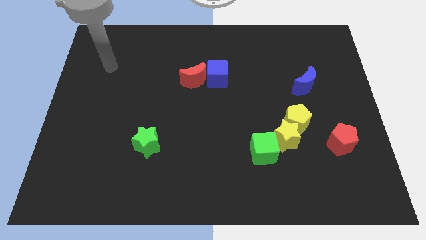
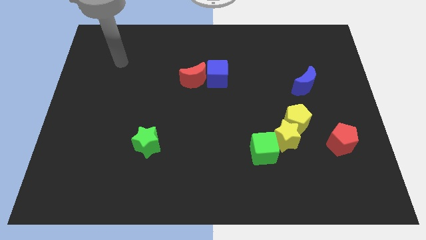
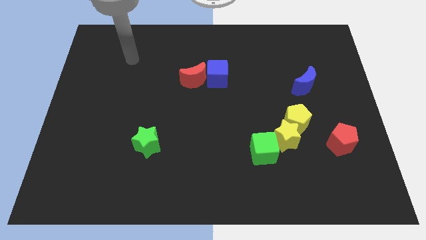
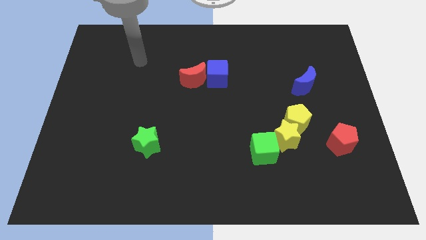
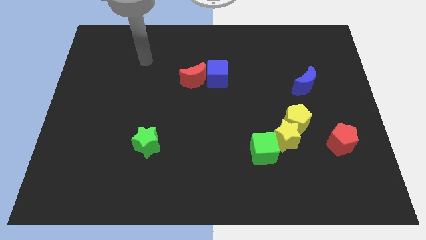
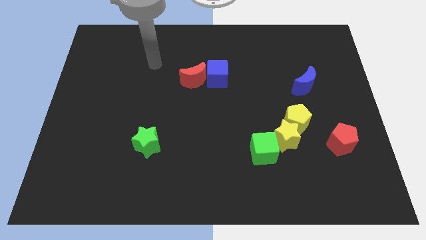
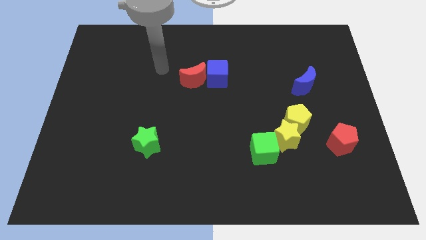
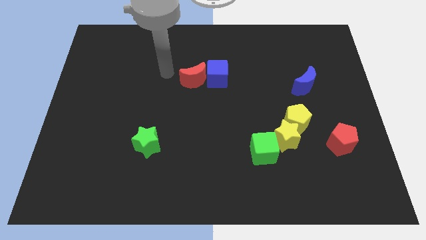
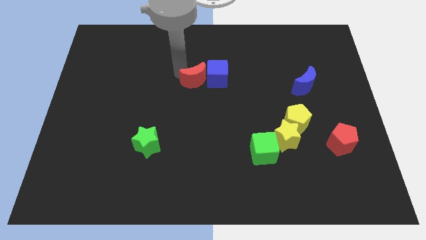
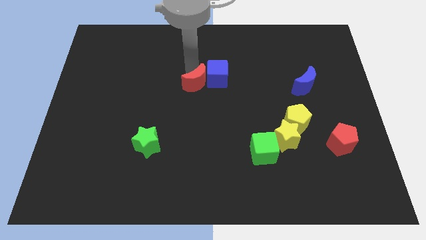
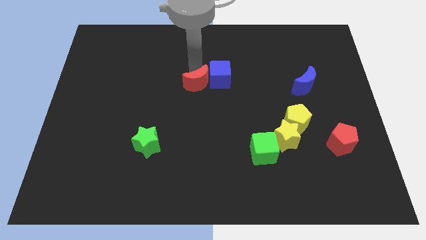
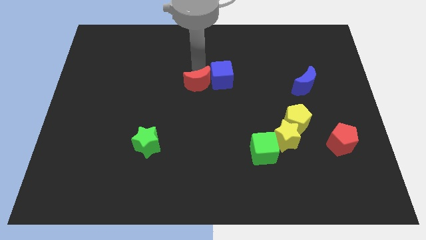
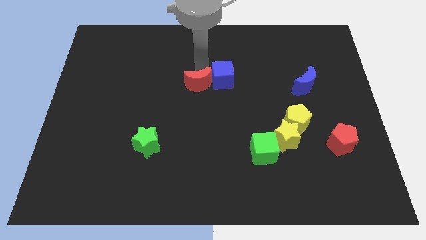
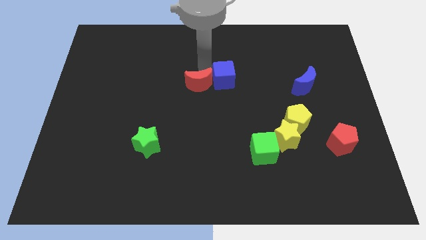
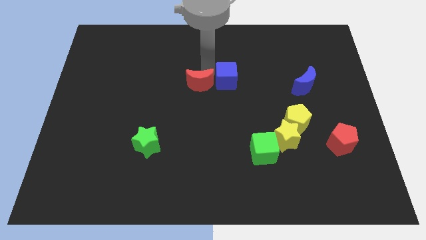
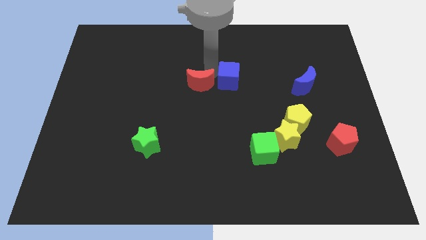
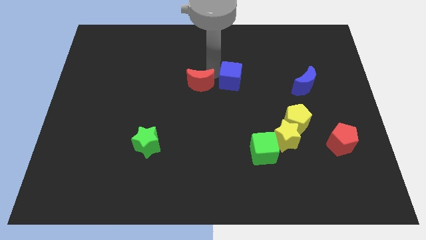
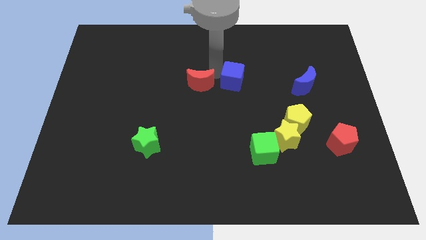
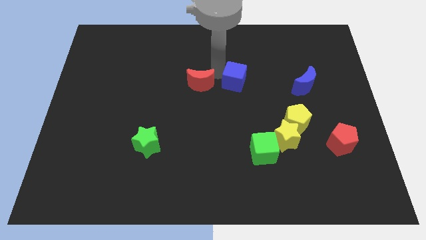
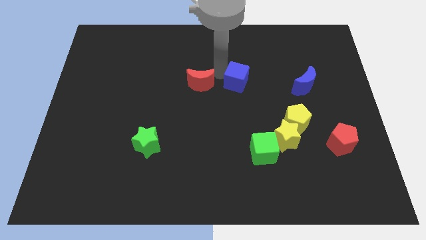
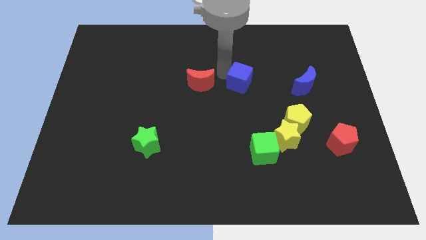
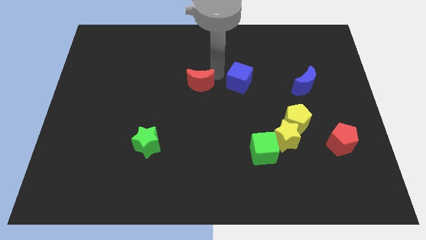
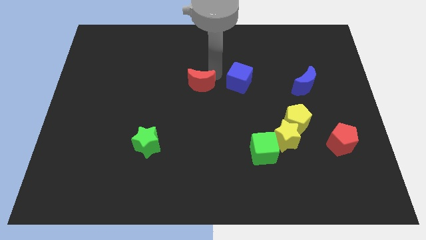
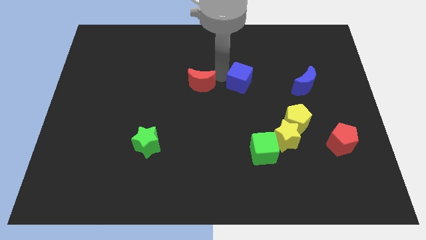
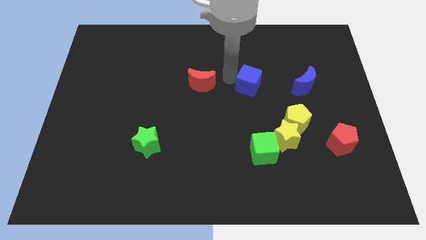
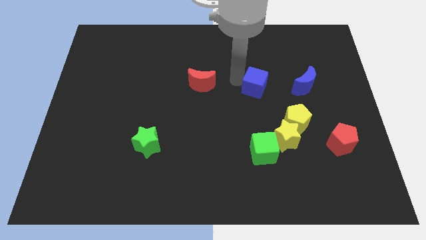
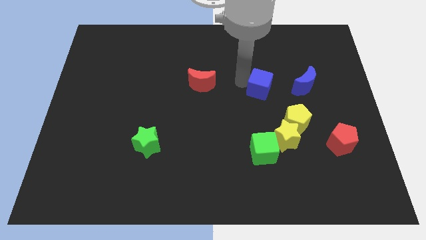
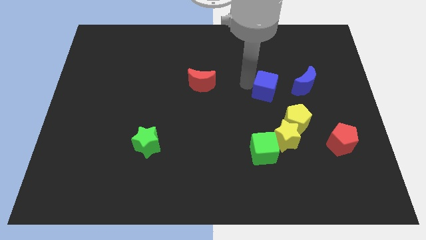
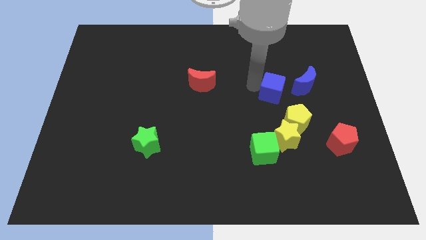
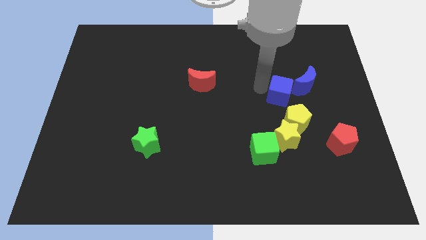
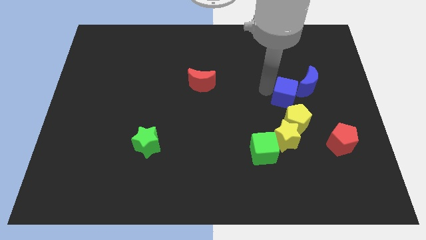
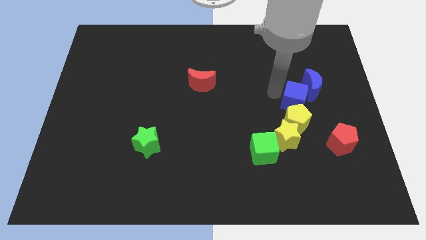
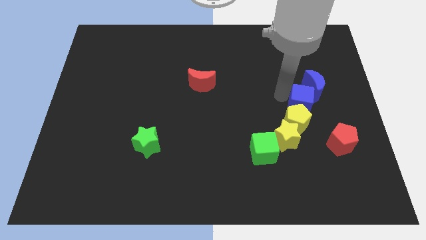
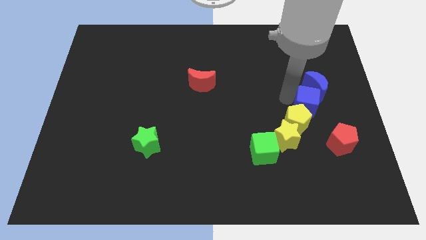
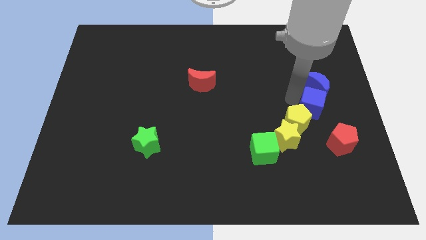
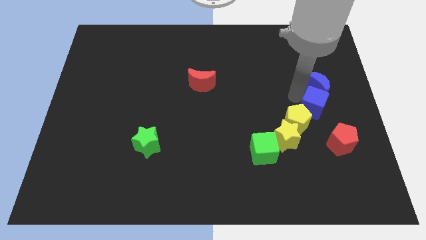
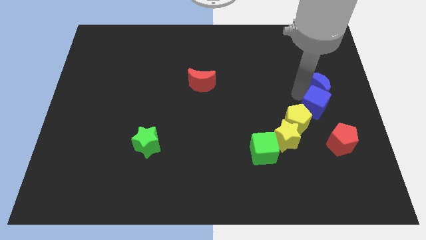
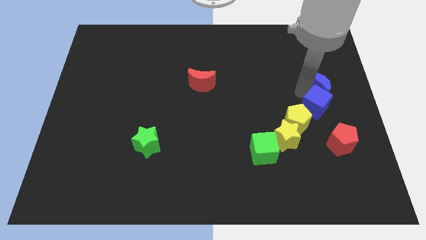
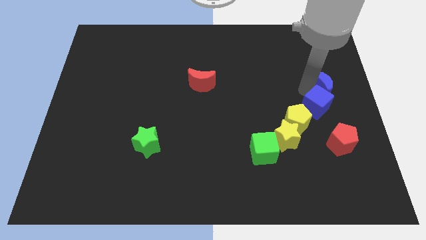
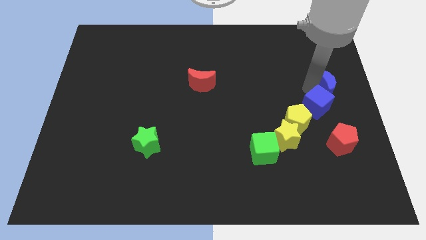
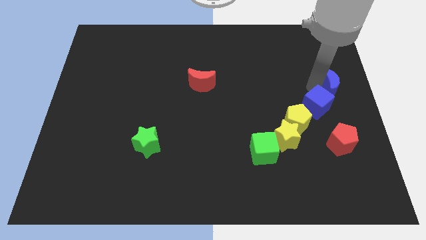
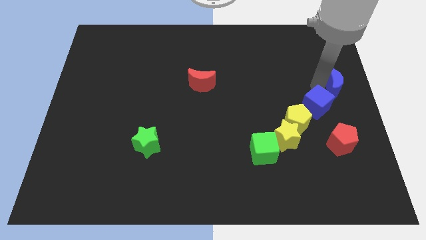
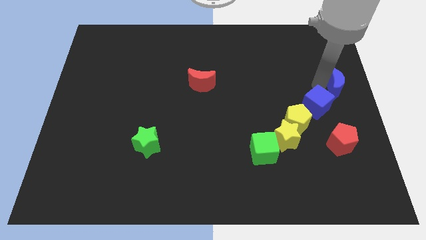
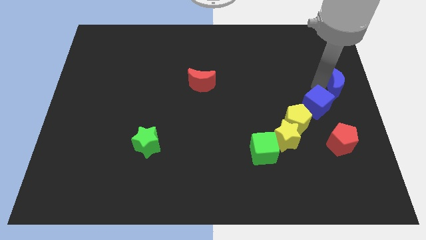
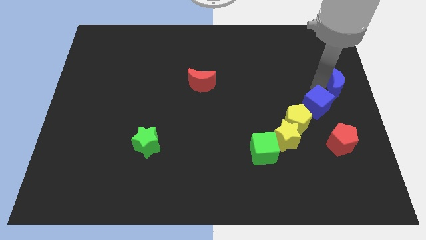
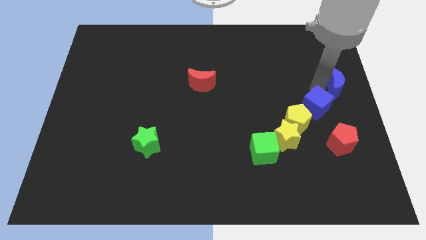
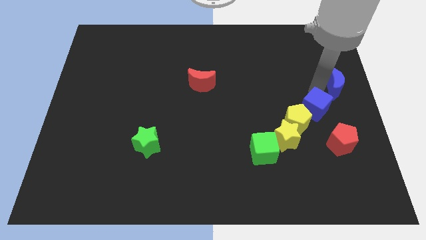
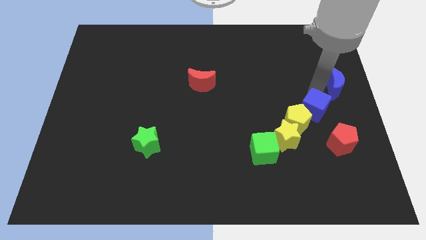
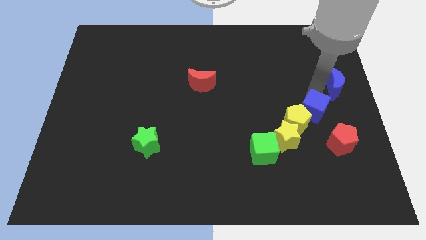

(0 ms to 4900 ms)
move the blue cube diagonally down and right

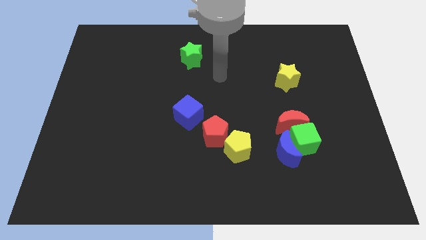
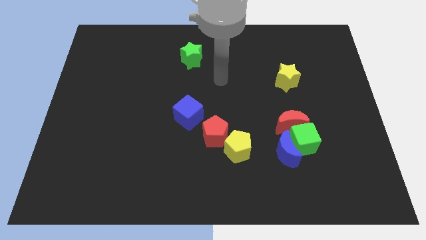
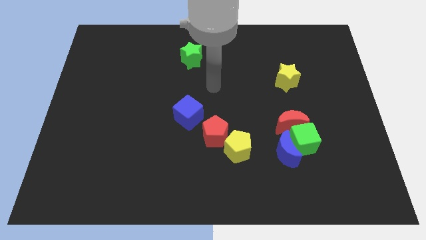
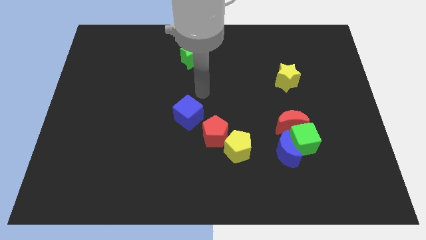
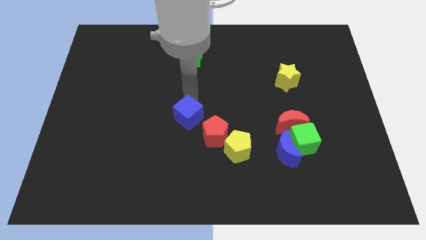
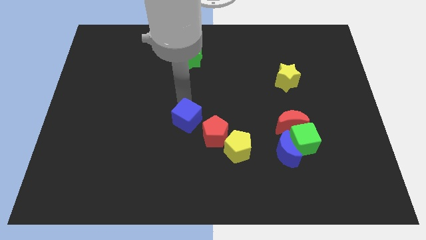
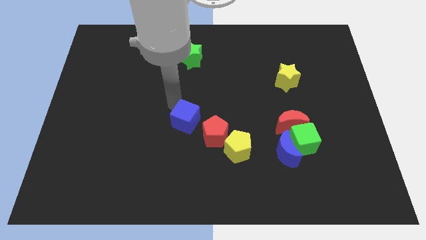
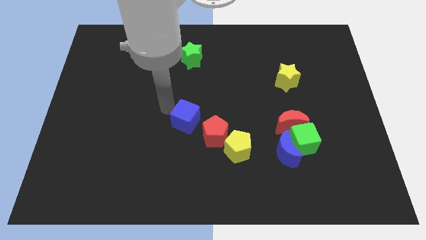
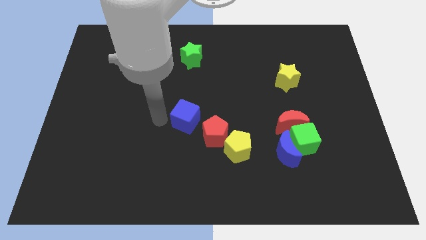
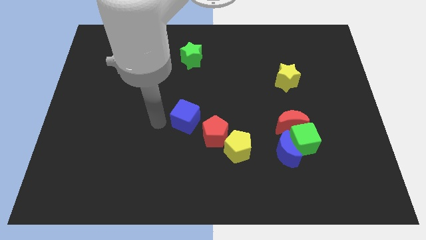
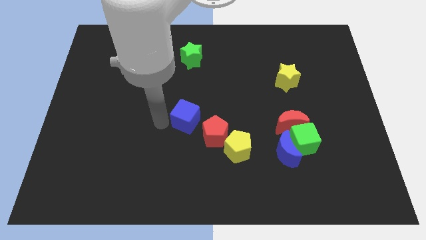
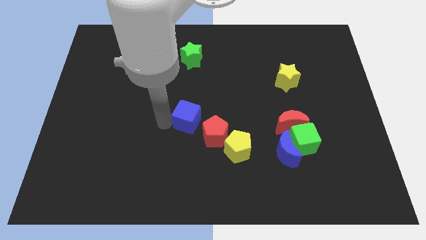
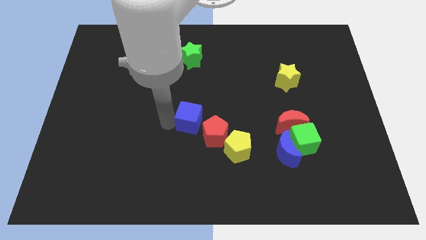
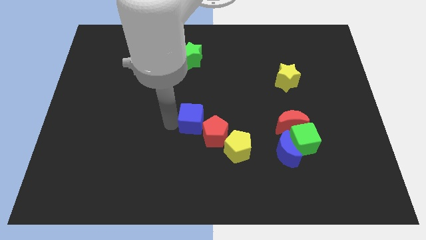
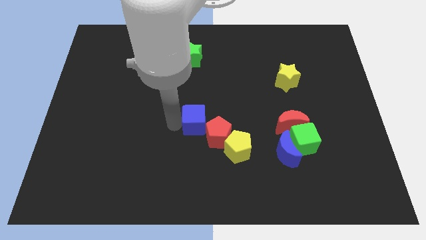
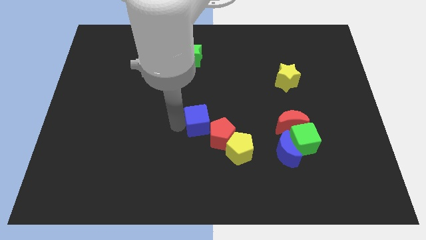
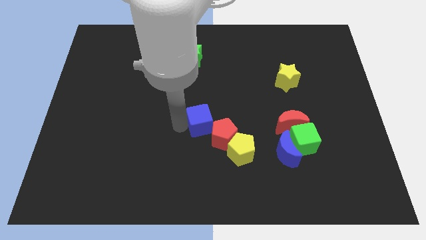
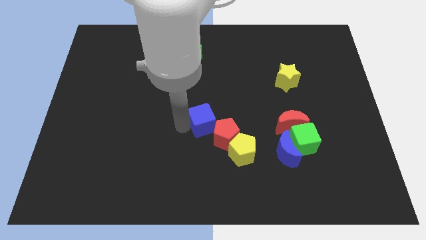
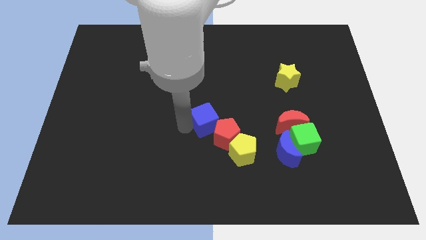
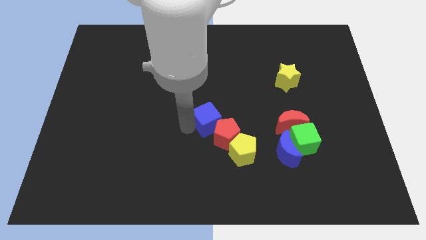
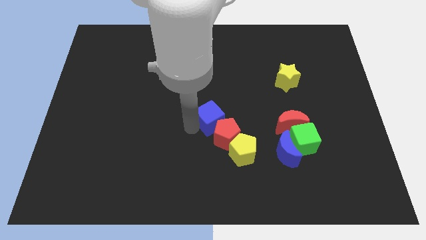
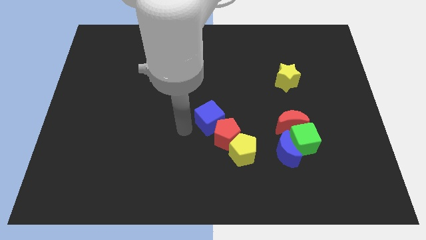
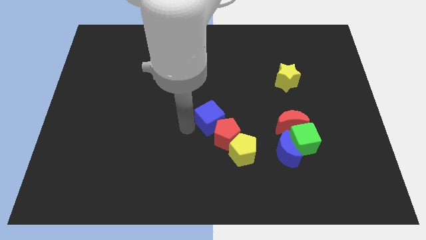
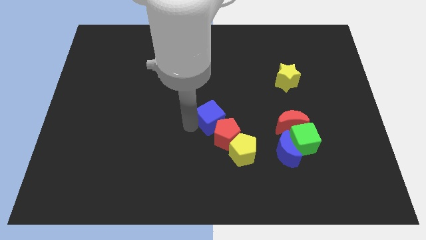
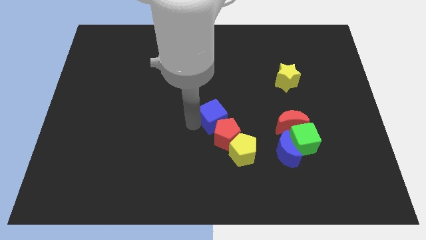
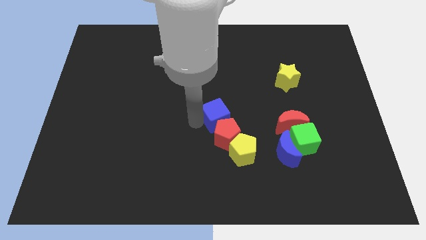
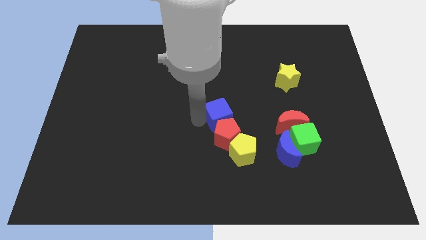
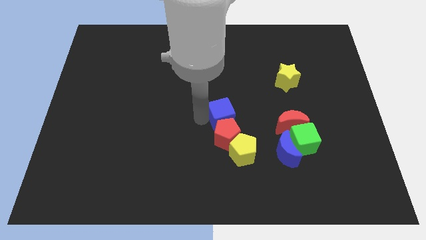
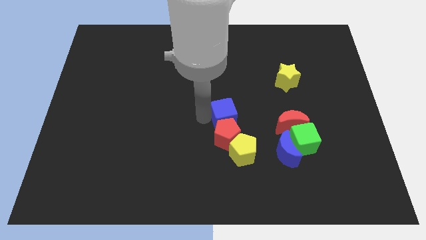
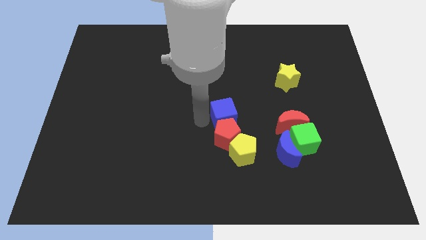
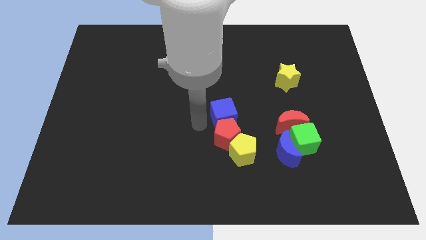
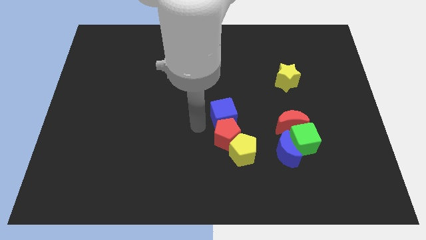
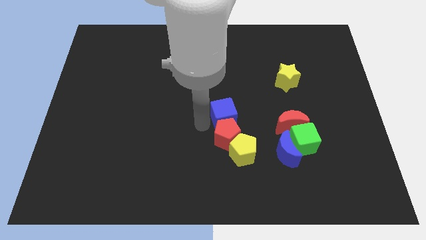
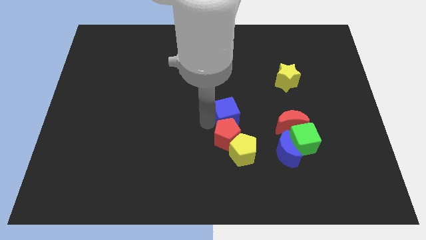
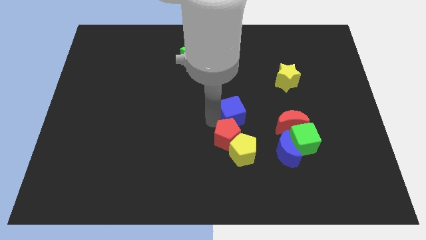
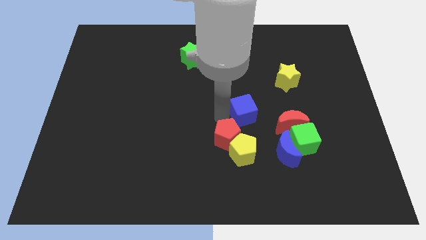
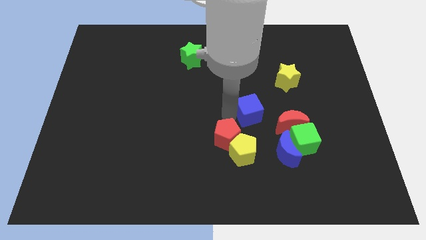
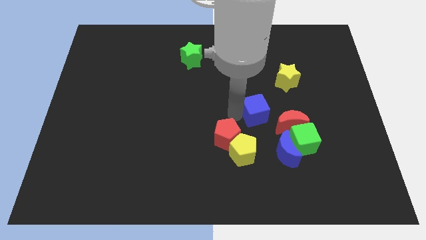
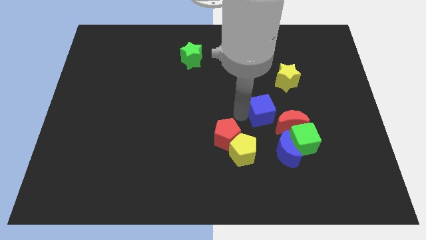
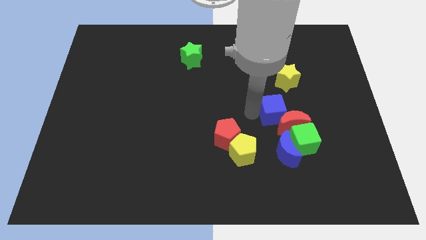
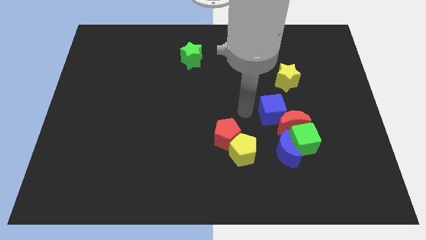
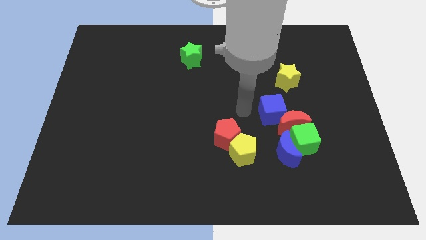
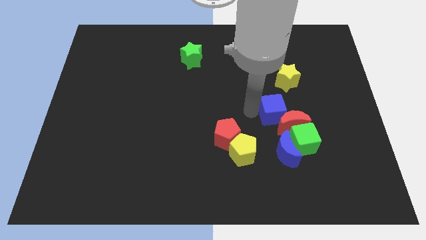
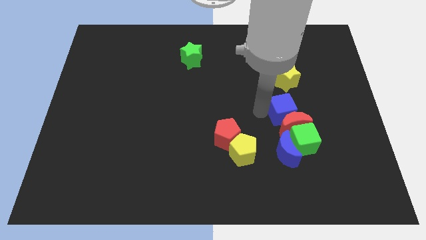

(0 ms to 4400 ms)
push the blue cube to the right
